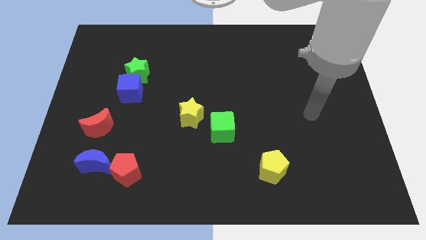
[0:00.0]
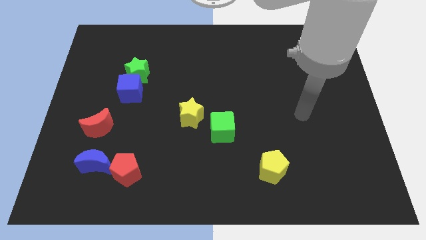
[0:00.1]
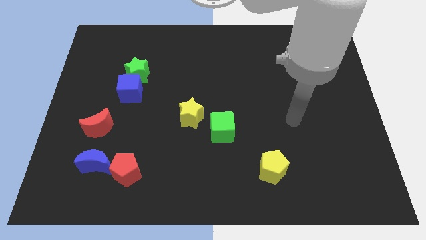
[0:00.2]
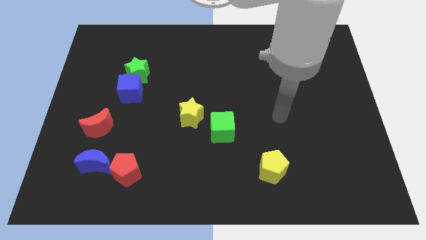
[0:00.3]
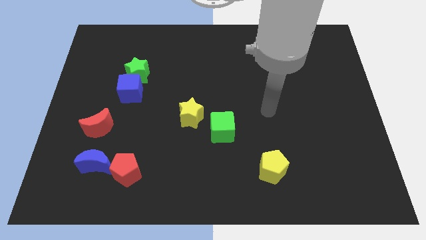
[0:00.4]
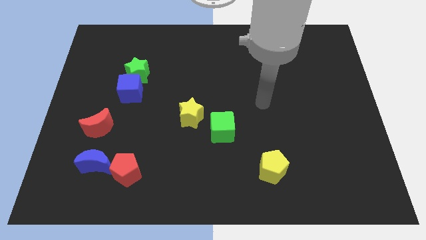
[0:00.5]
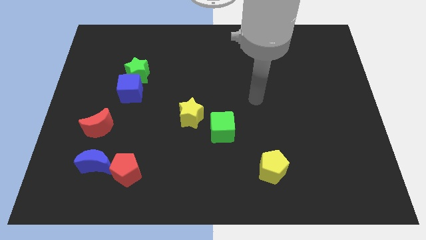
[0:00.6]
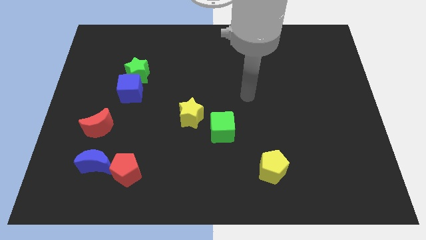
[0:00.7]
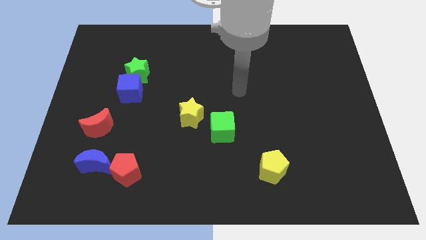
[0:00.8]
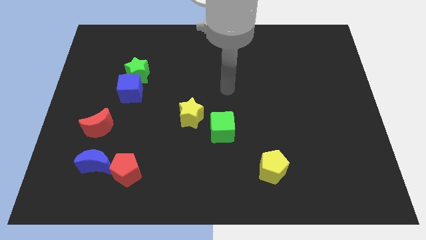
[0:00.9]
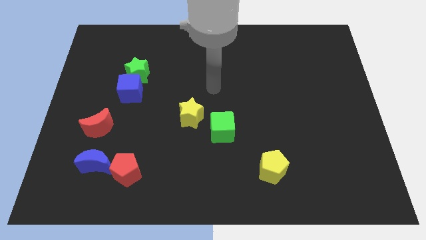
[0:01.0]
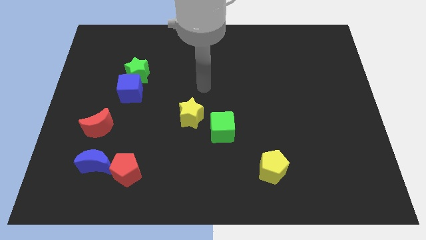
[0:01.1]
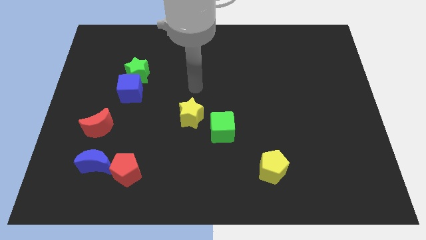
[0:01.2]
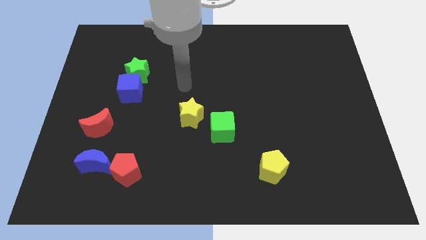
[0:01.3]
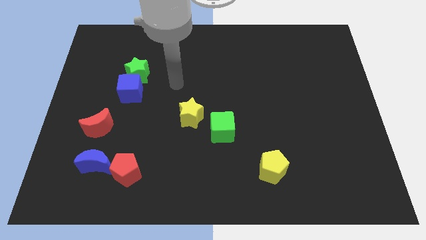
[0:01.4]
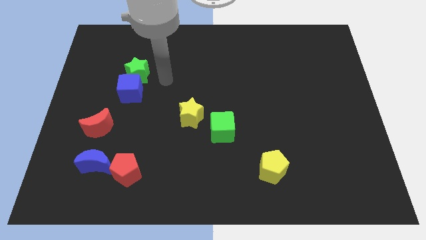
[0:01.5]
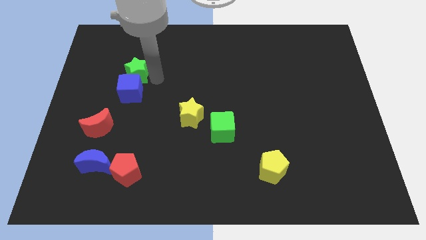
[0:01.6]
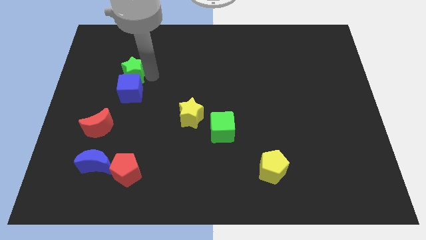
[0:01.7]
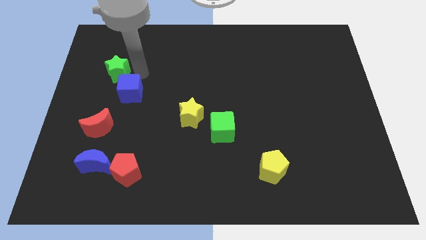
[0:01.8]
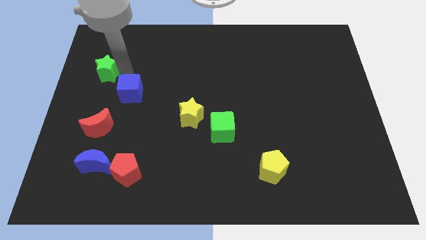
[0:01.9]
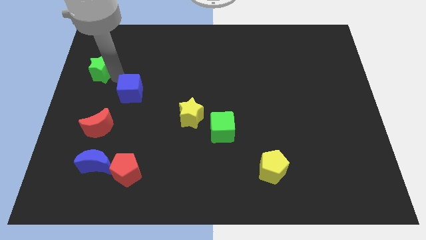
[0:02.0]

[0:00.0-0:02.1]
pull the blue cube apart from the green star

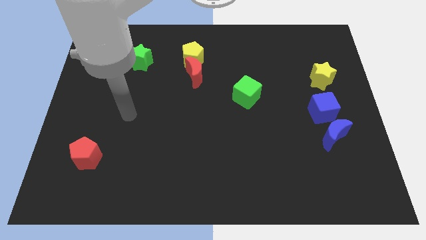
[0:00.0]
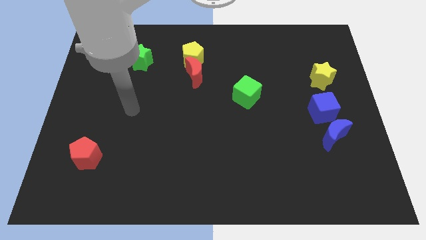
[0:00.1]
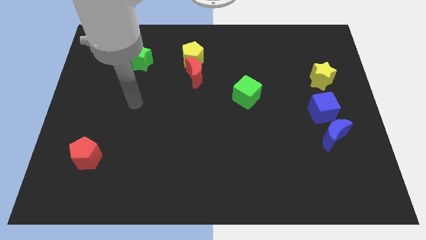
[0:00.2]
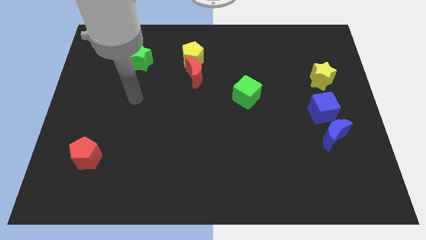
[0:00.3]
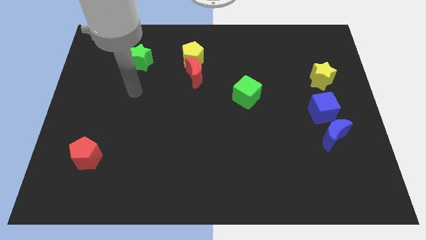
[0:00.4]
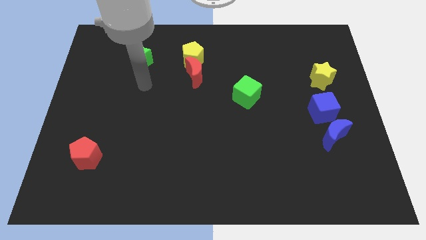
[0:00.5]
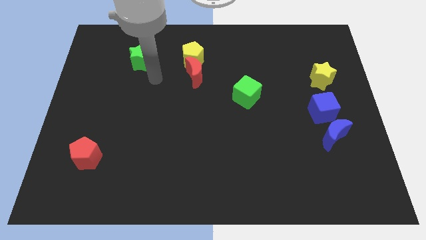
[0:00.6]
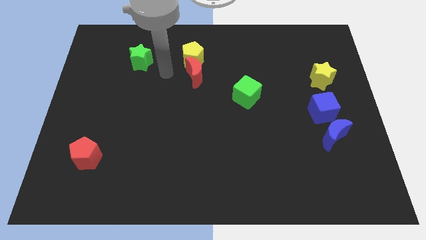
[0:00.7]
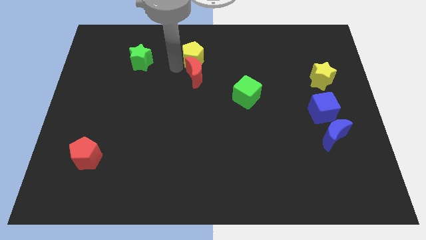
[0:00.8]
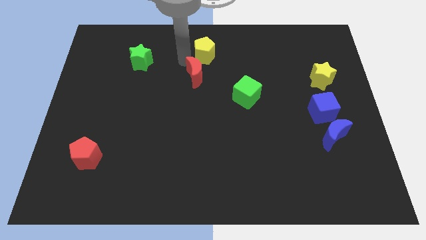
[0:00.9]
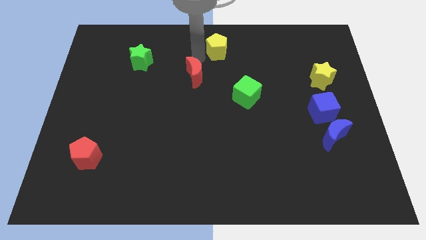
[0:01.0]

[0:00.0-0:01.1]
separate the red moon from the yellow pentagon

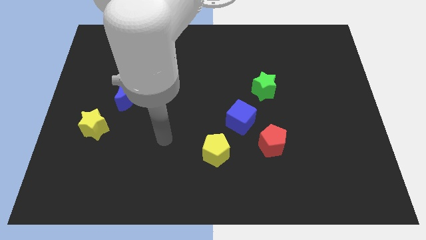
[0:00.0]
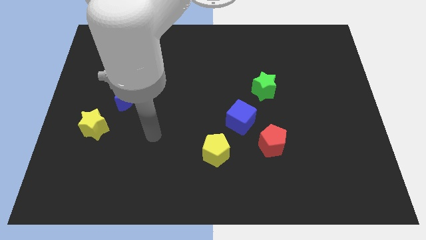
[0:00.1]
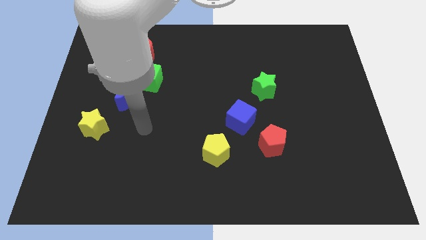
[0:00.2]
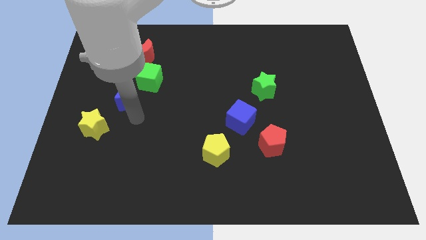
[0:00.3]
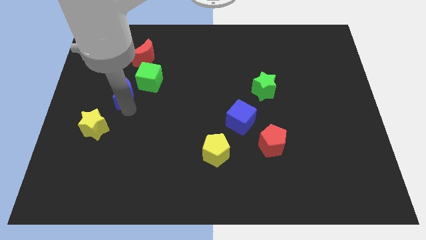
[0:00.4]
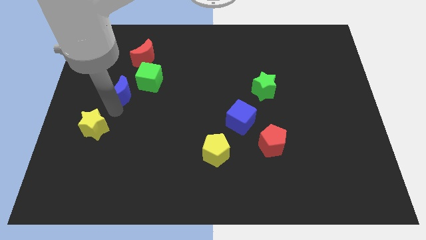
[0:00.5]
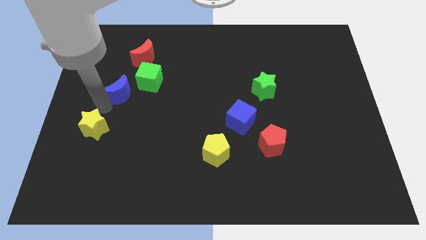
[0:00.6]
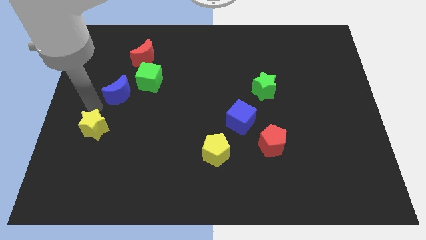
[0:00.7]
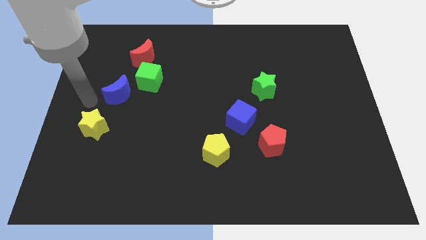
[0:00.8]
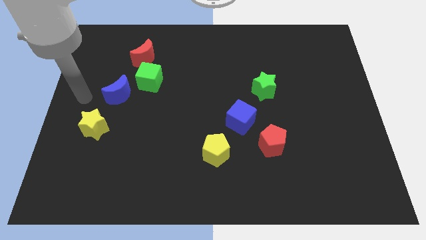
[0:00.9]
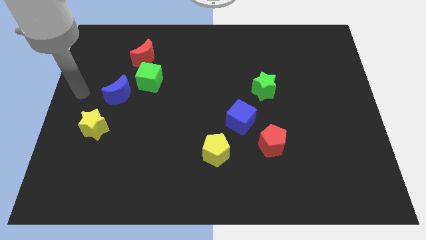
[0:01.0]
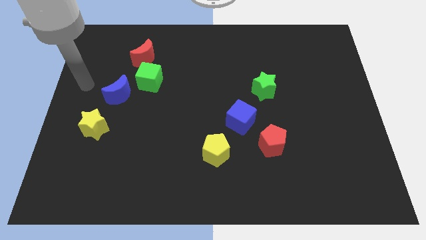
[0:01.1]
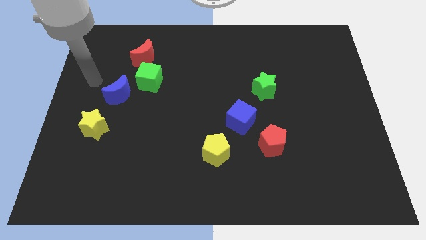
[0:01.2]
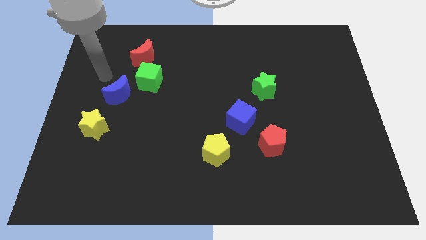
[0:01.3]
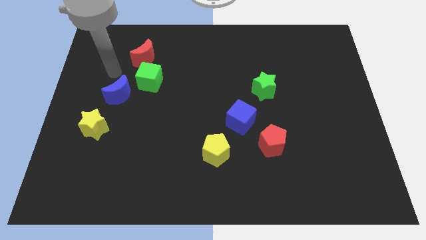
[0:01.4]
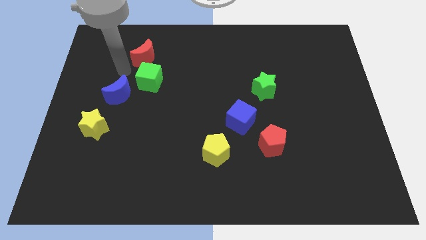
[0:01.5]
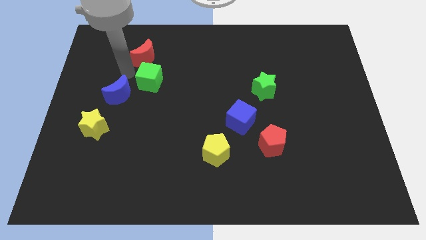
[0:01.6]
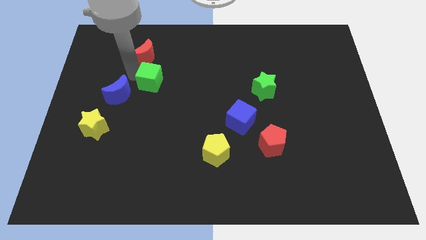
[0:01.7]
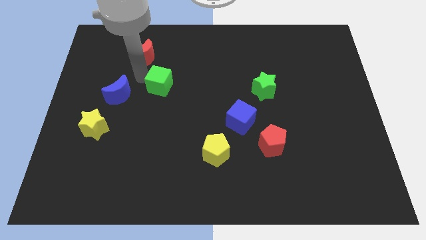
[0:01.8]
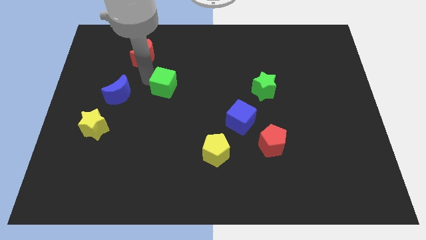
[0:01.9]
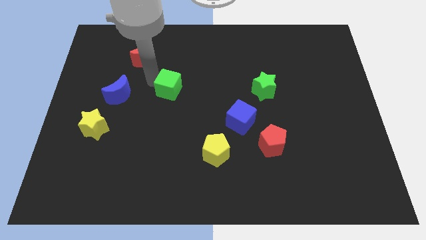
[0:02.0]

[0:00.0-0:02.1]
pull the green cube apart from the blue moon and red moon

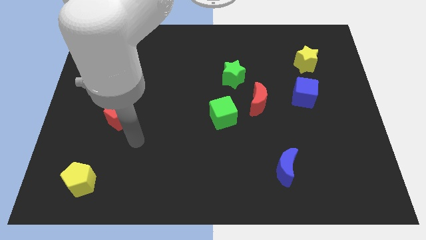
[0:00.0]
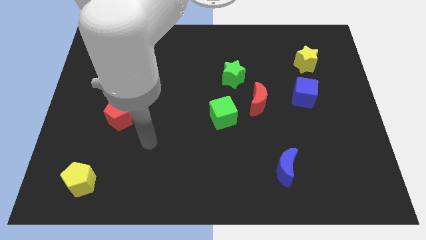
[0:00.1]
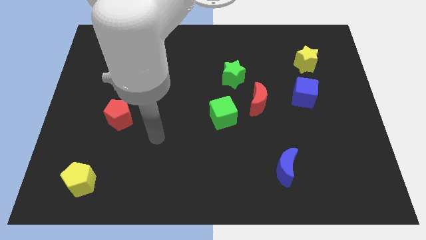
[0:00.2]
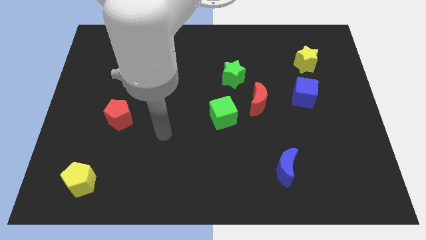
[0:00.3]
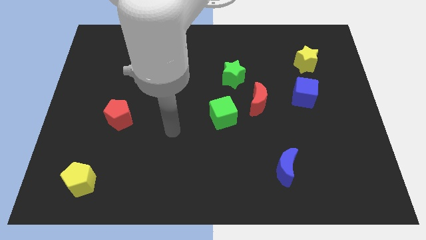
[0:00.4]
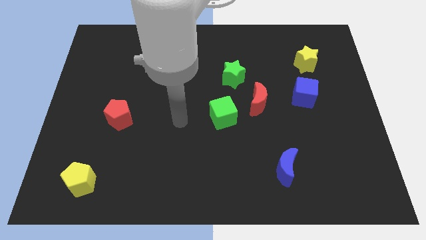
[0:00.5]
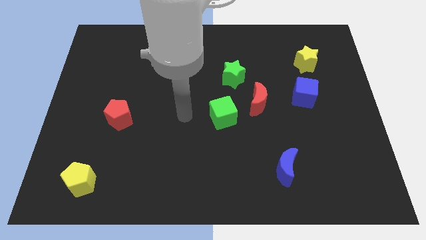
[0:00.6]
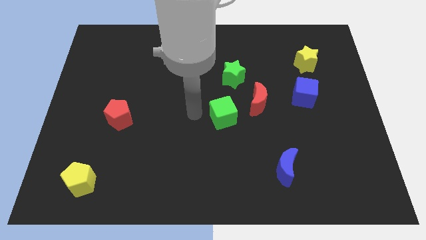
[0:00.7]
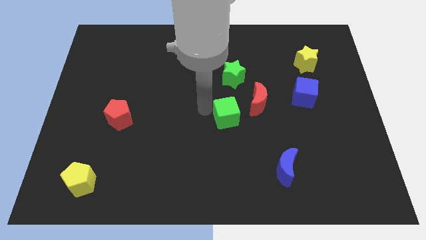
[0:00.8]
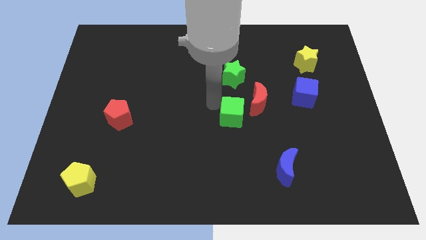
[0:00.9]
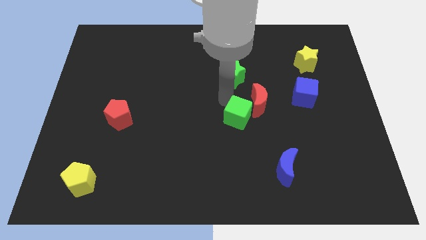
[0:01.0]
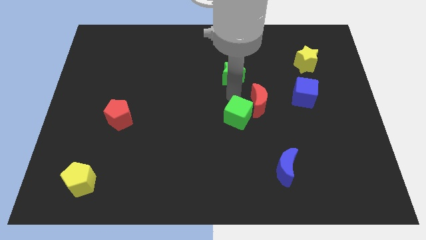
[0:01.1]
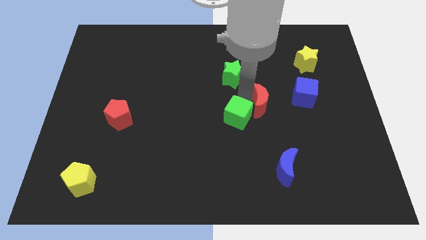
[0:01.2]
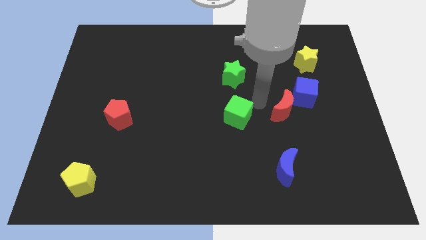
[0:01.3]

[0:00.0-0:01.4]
pull the green cube apart from the red moon

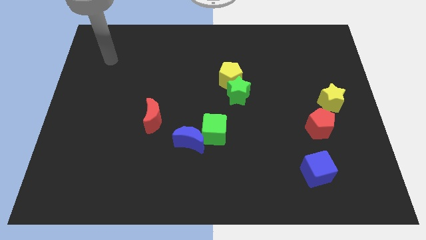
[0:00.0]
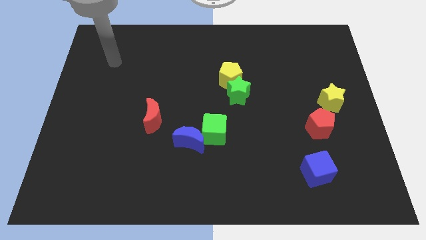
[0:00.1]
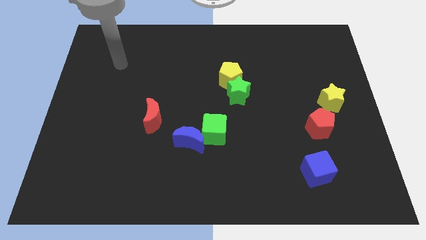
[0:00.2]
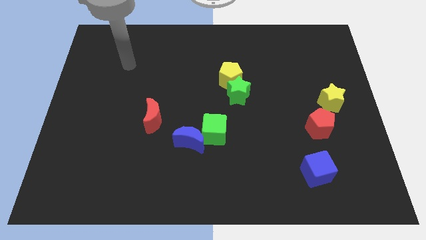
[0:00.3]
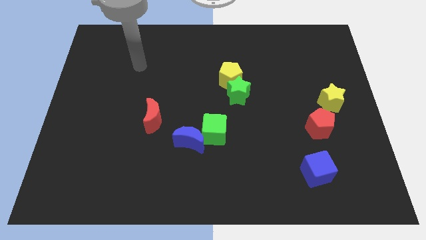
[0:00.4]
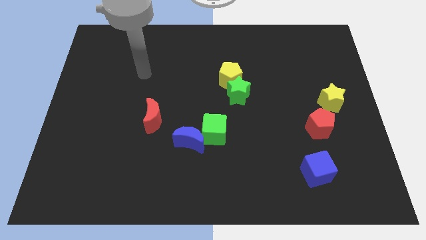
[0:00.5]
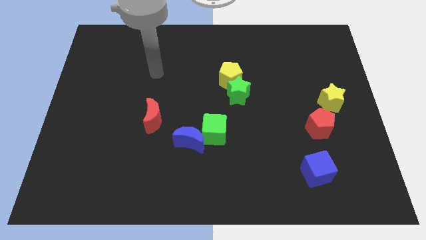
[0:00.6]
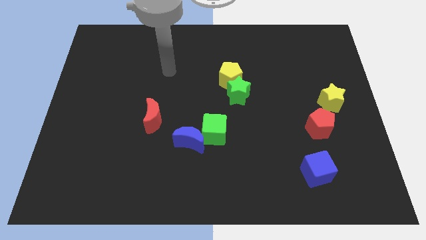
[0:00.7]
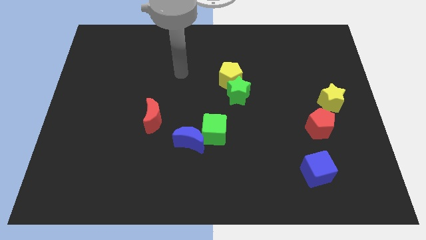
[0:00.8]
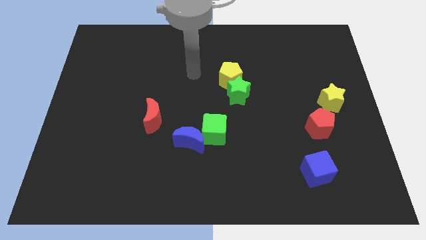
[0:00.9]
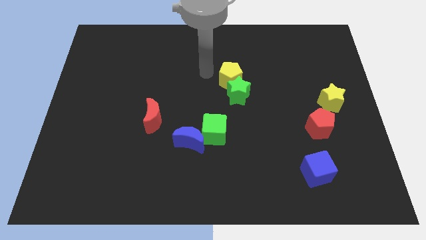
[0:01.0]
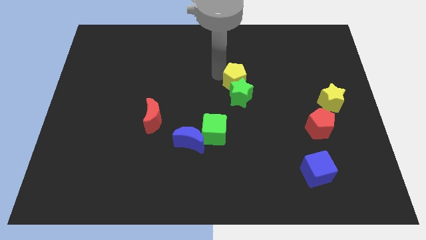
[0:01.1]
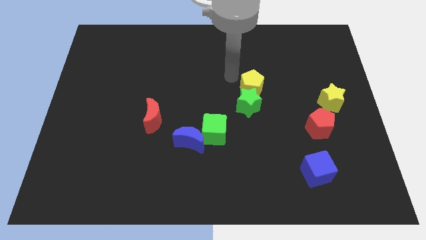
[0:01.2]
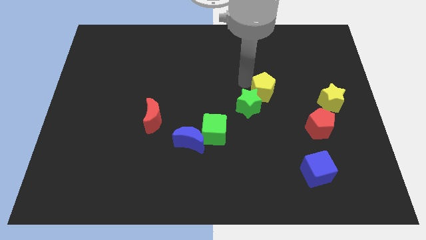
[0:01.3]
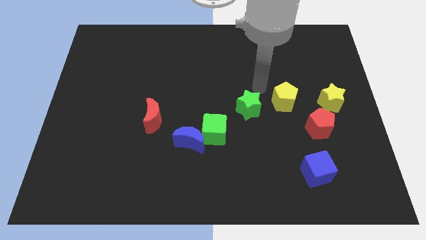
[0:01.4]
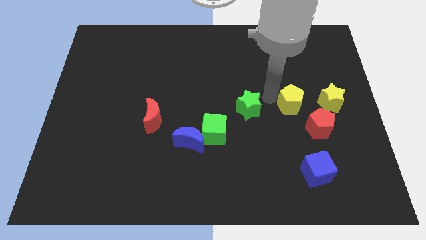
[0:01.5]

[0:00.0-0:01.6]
separate the green star from the yellow pentagon

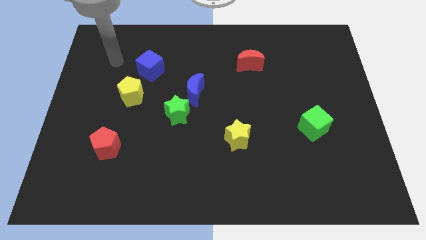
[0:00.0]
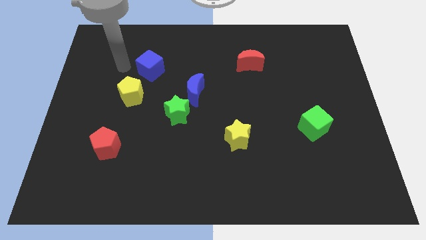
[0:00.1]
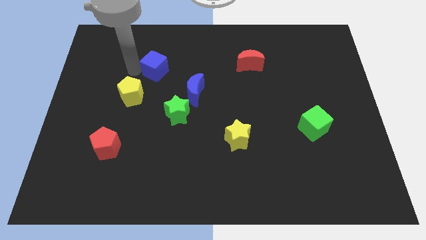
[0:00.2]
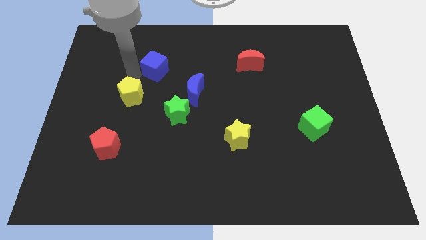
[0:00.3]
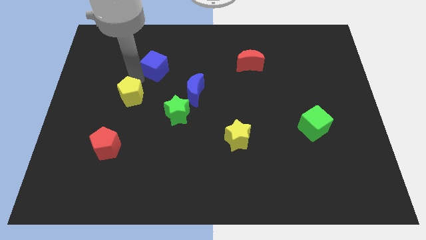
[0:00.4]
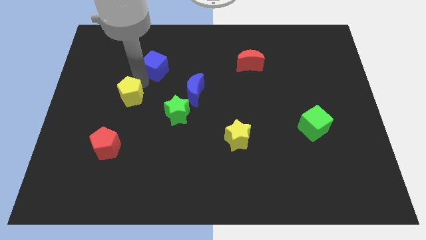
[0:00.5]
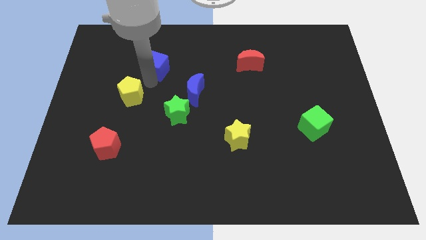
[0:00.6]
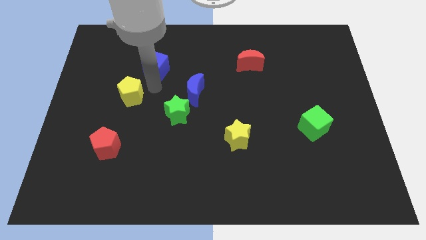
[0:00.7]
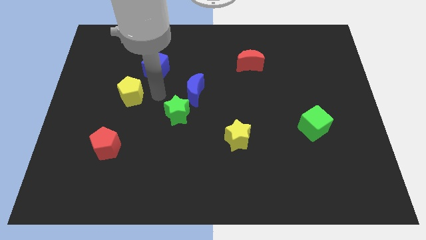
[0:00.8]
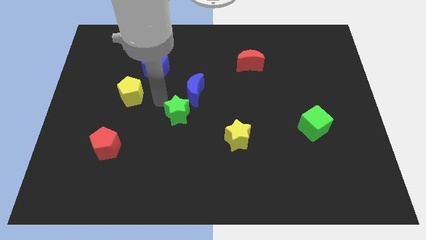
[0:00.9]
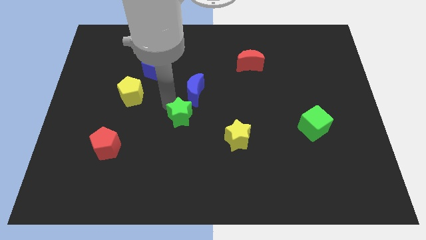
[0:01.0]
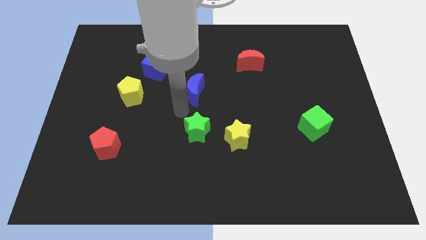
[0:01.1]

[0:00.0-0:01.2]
pull the blue moon apart from the green star
